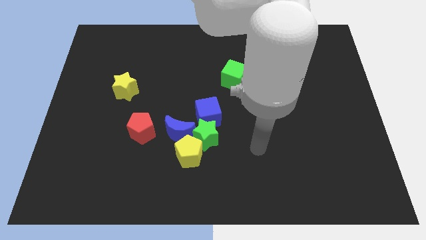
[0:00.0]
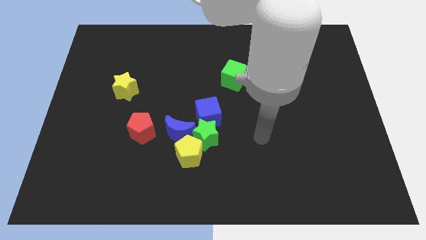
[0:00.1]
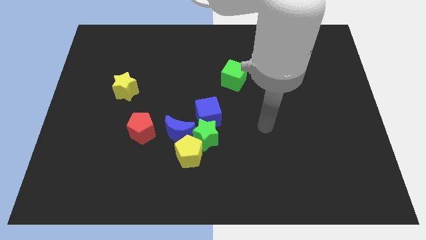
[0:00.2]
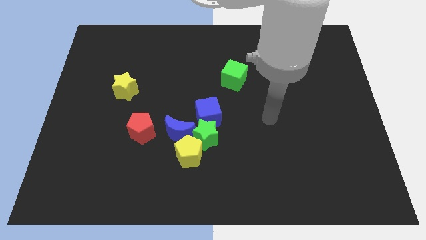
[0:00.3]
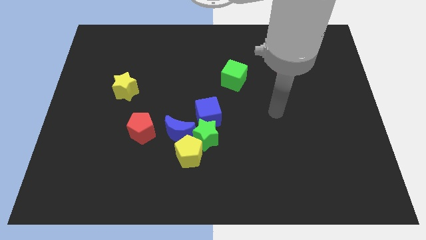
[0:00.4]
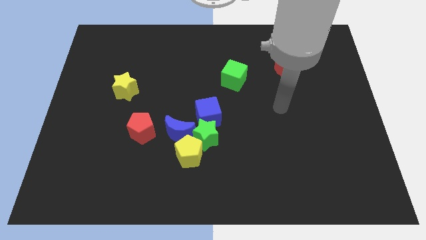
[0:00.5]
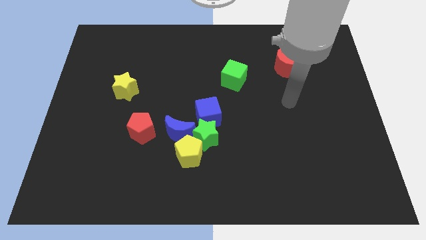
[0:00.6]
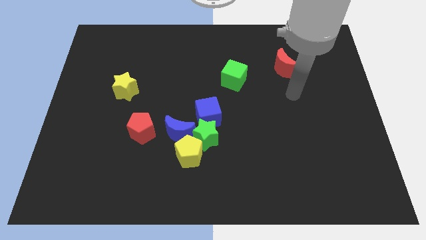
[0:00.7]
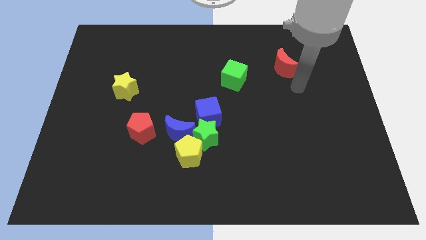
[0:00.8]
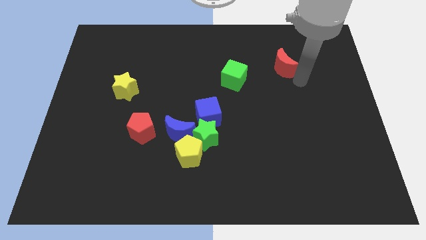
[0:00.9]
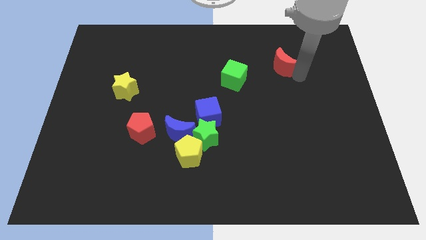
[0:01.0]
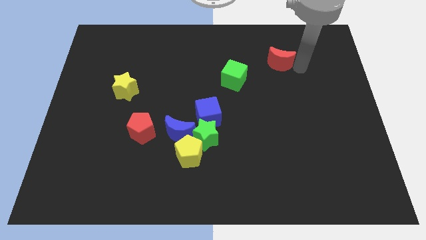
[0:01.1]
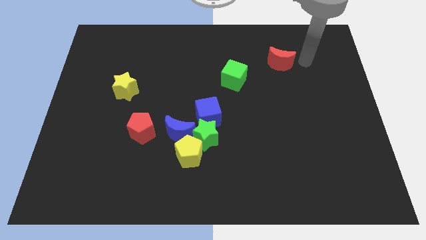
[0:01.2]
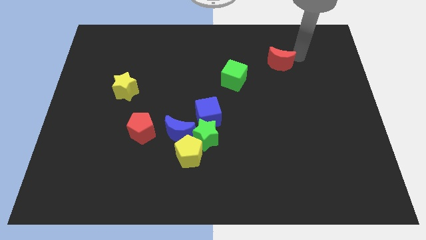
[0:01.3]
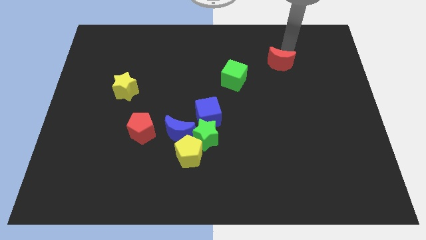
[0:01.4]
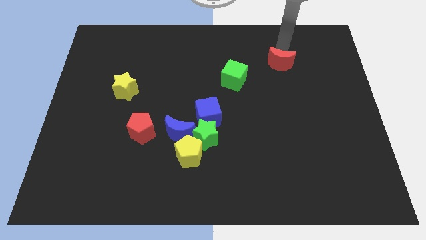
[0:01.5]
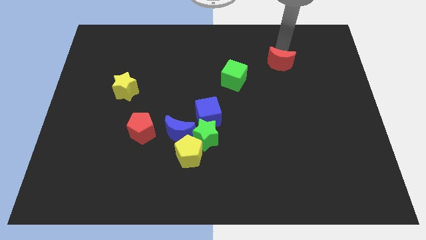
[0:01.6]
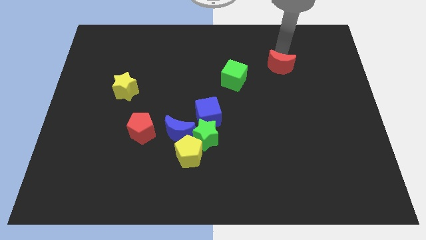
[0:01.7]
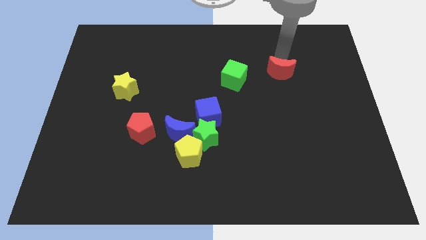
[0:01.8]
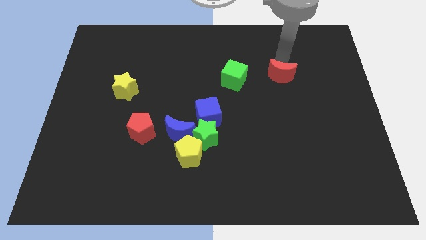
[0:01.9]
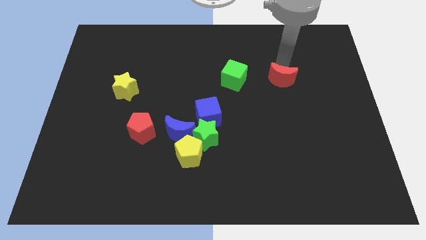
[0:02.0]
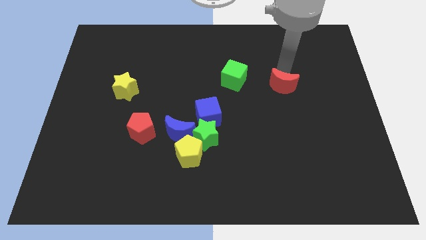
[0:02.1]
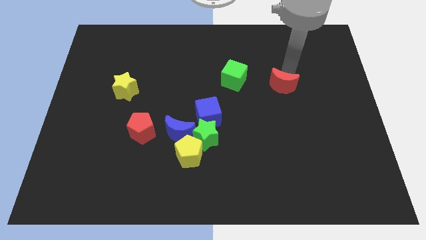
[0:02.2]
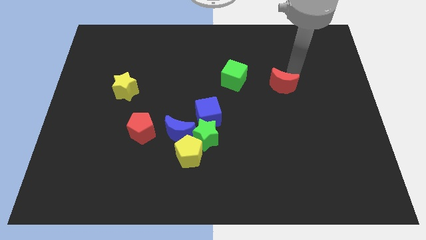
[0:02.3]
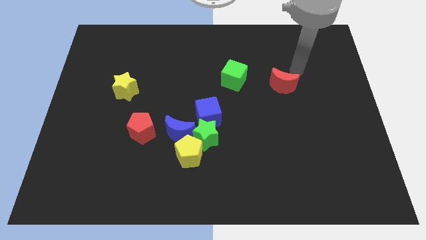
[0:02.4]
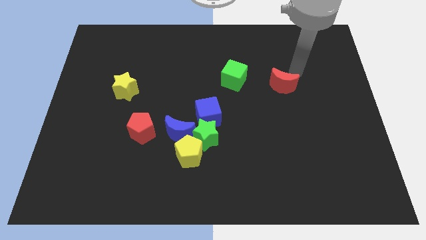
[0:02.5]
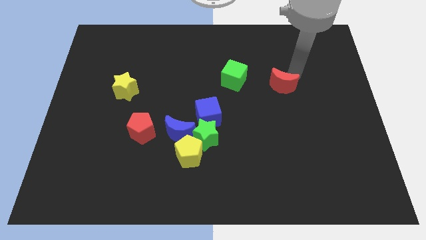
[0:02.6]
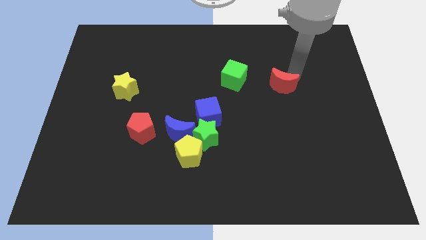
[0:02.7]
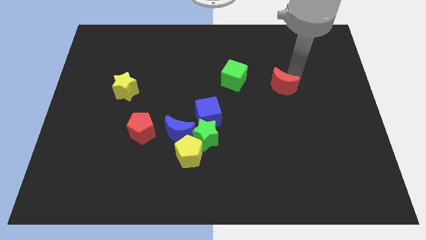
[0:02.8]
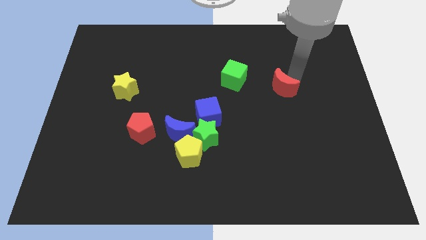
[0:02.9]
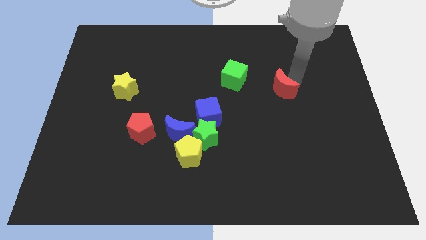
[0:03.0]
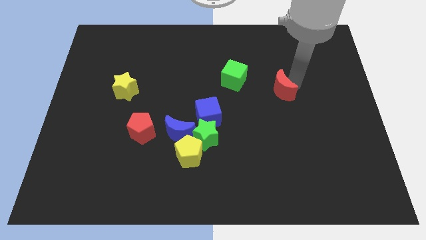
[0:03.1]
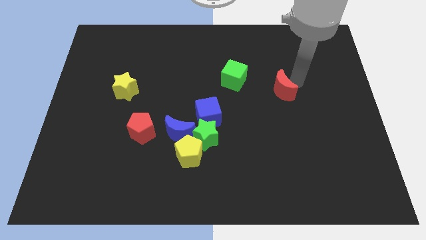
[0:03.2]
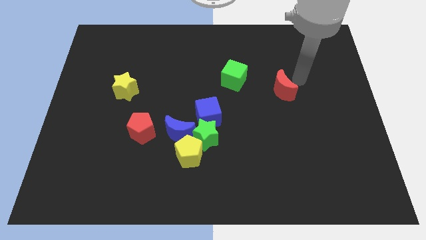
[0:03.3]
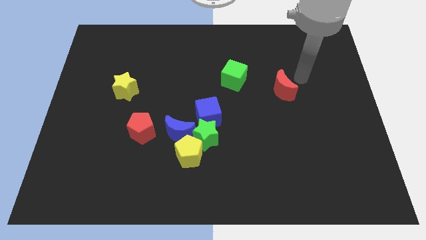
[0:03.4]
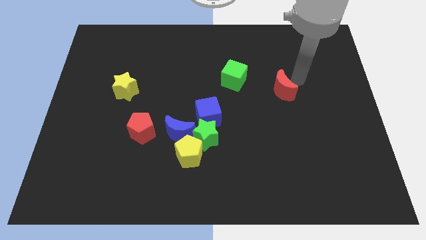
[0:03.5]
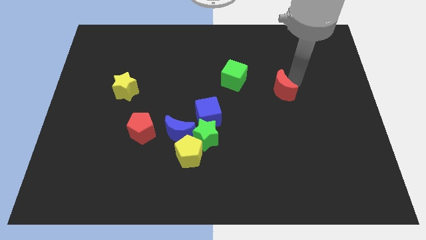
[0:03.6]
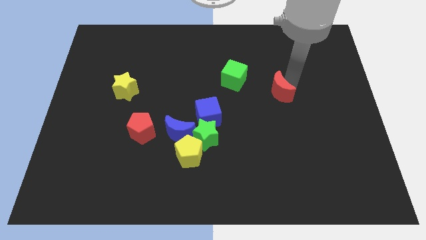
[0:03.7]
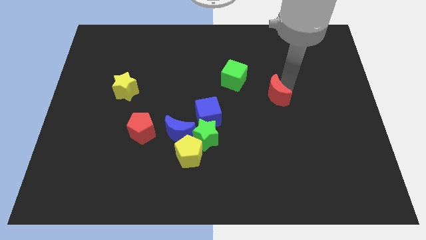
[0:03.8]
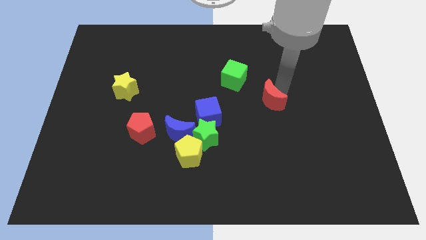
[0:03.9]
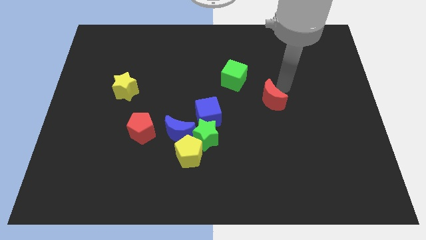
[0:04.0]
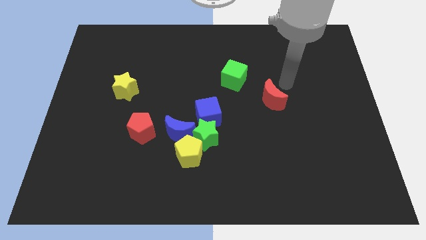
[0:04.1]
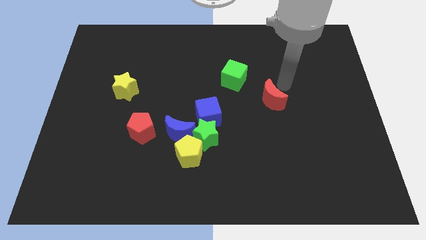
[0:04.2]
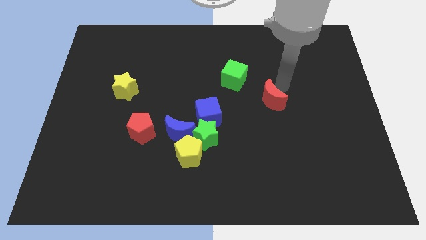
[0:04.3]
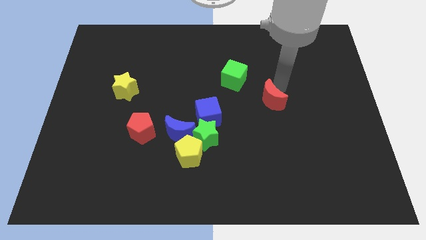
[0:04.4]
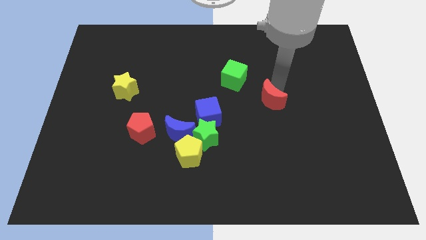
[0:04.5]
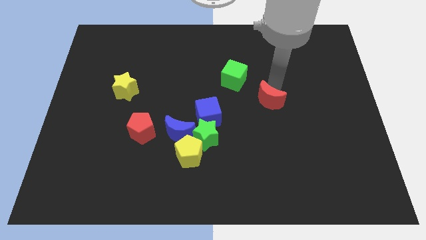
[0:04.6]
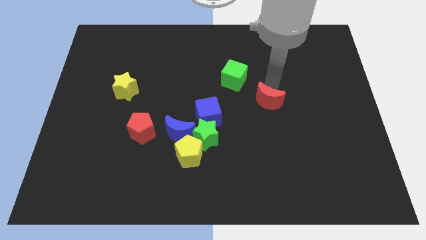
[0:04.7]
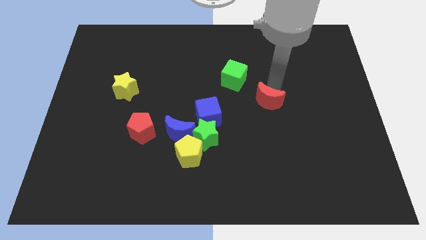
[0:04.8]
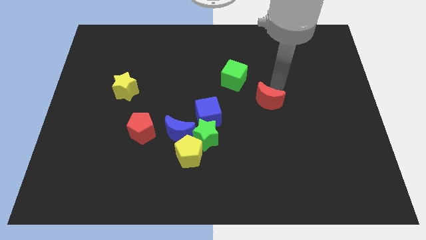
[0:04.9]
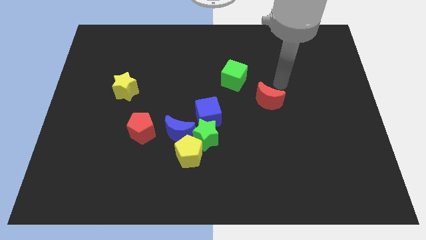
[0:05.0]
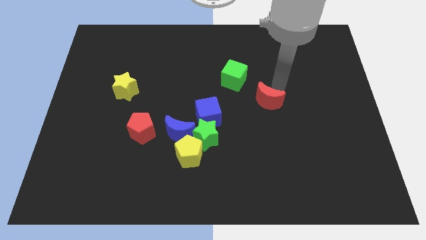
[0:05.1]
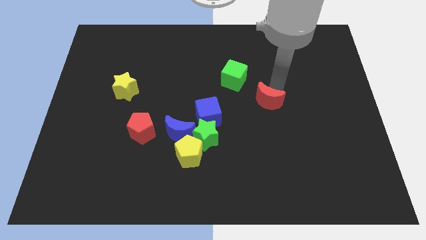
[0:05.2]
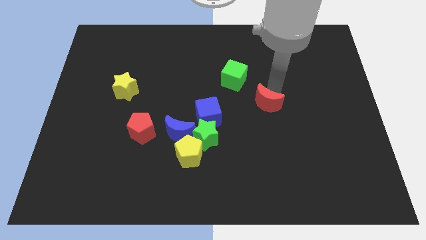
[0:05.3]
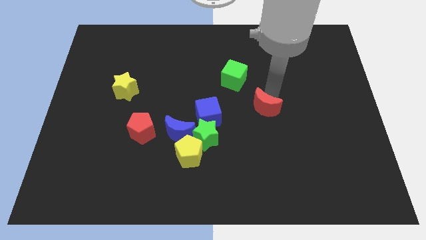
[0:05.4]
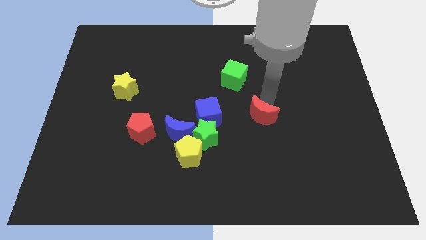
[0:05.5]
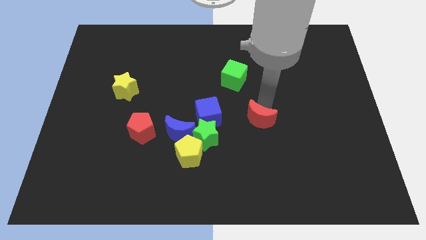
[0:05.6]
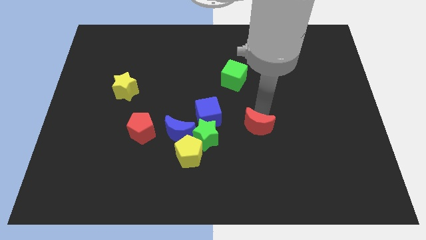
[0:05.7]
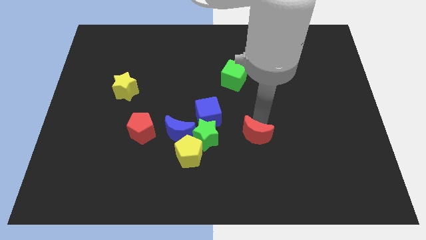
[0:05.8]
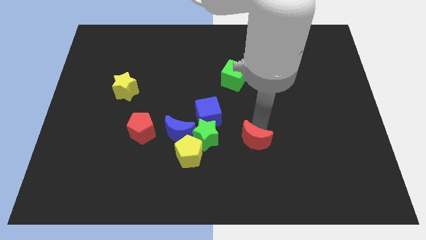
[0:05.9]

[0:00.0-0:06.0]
push the red moon to the right of the yellow pentagon
